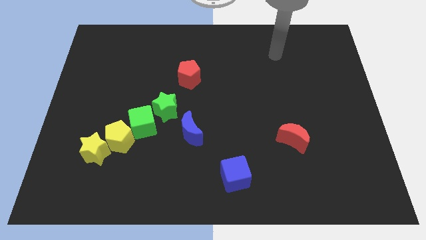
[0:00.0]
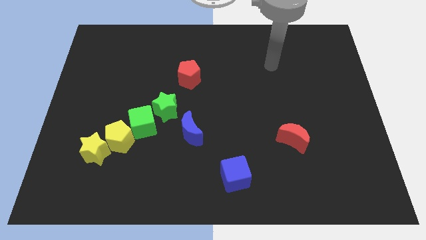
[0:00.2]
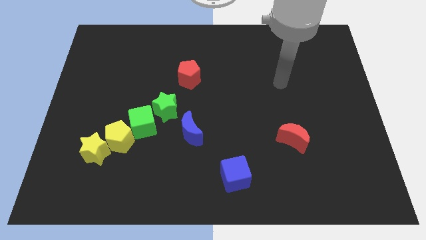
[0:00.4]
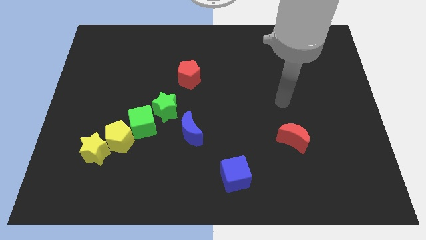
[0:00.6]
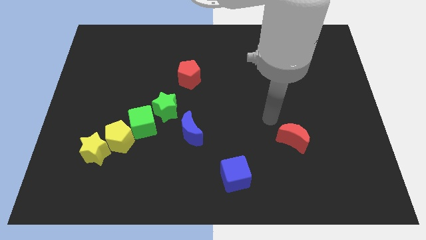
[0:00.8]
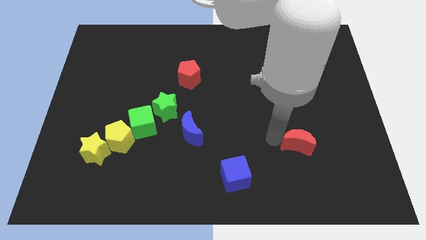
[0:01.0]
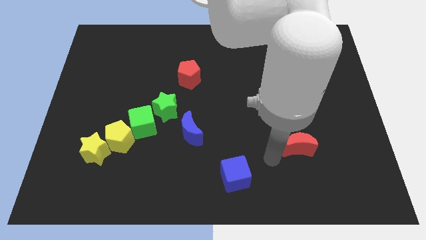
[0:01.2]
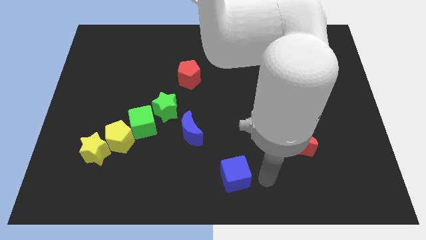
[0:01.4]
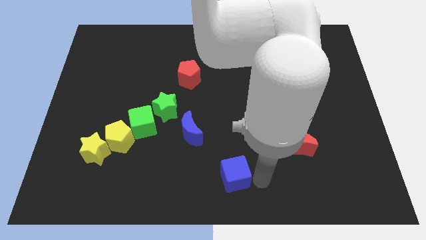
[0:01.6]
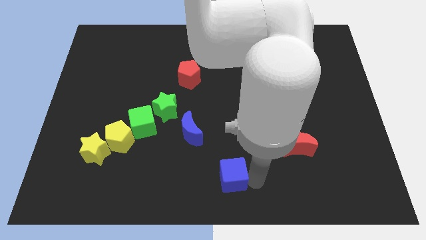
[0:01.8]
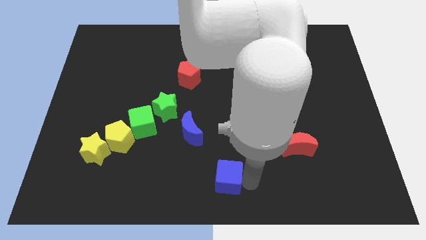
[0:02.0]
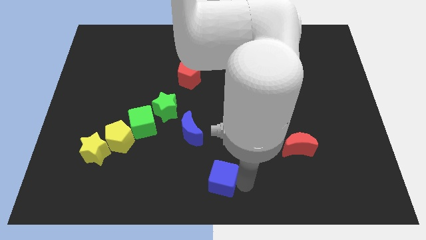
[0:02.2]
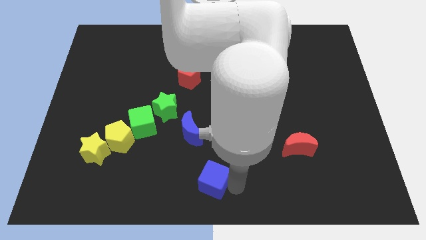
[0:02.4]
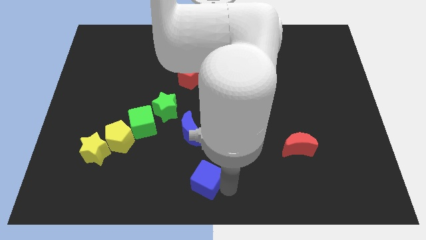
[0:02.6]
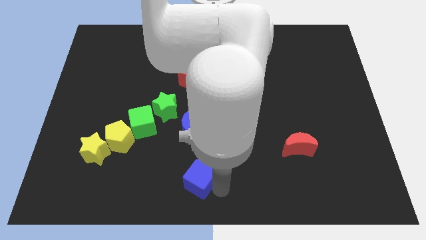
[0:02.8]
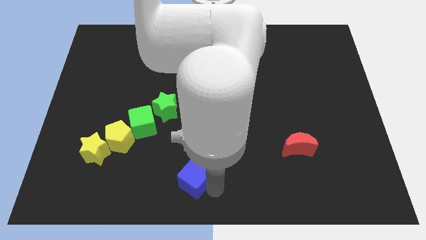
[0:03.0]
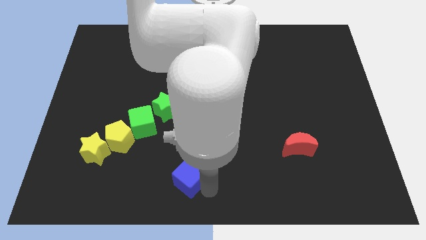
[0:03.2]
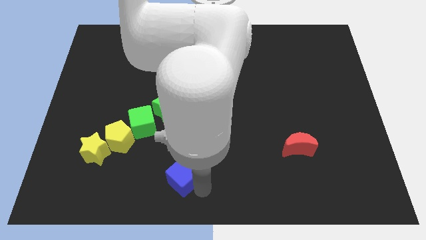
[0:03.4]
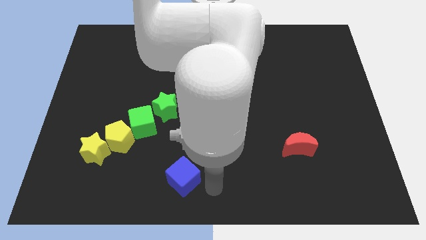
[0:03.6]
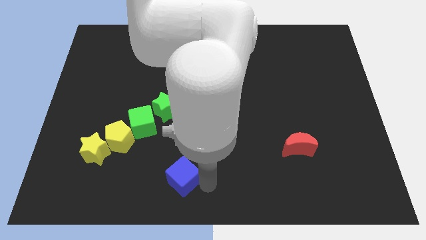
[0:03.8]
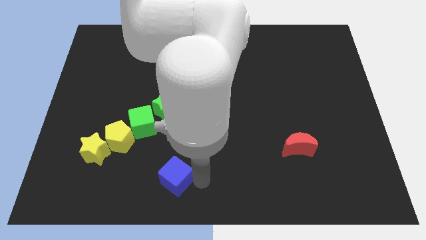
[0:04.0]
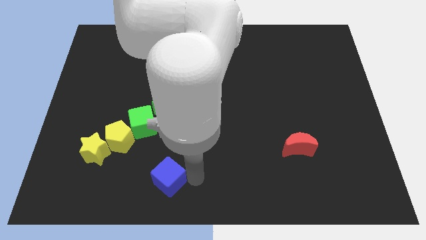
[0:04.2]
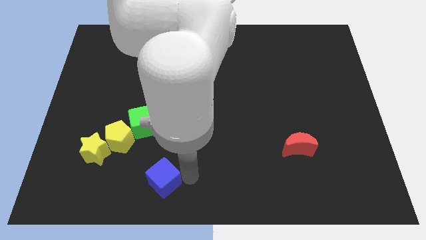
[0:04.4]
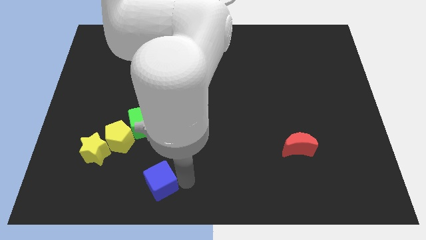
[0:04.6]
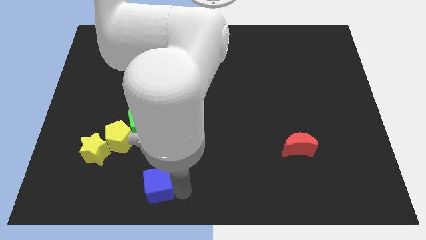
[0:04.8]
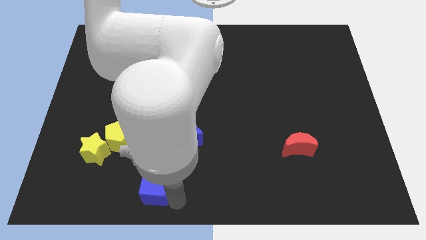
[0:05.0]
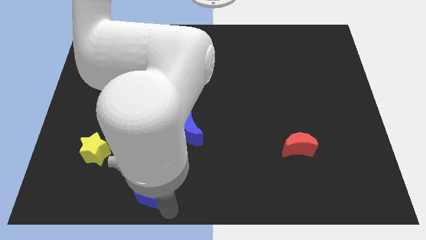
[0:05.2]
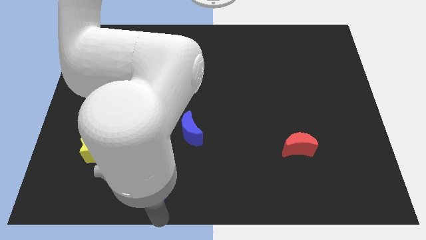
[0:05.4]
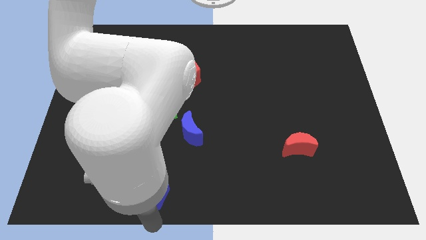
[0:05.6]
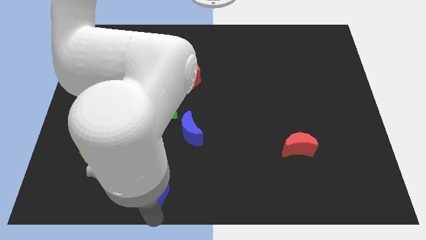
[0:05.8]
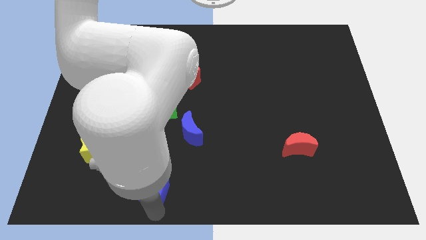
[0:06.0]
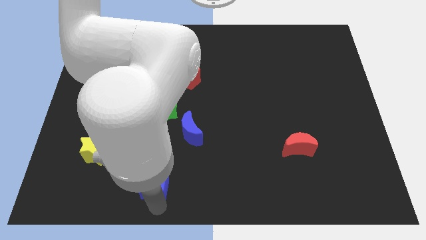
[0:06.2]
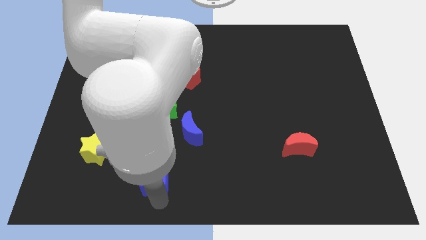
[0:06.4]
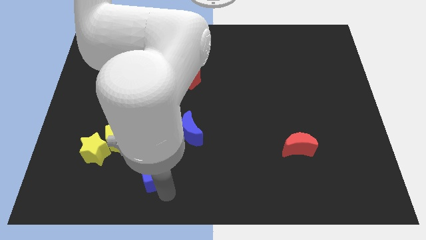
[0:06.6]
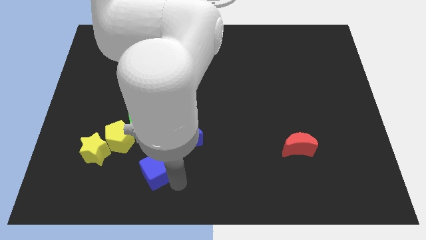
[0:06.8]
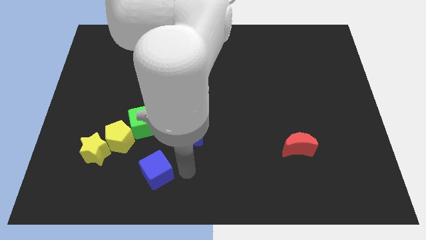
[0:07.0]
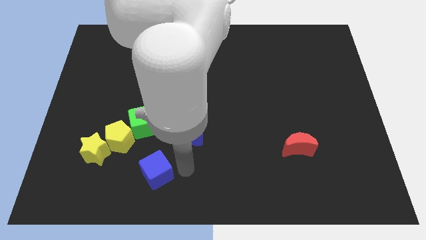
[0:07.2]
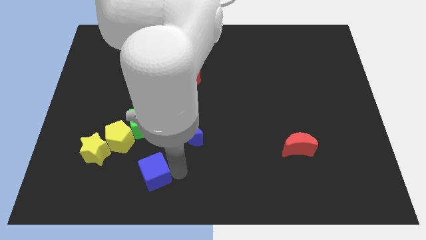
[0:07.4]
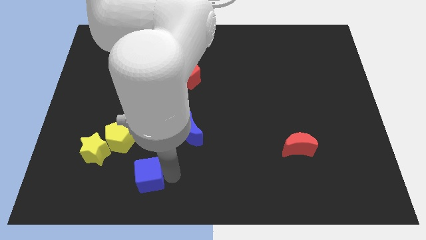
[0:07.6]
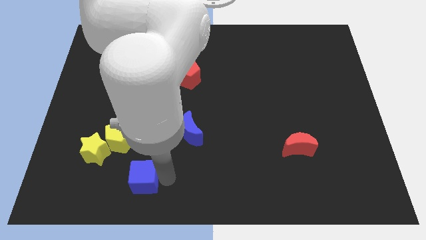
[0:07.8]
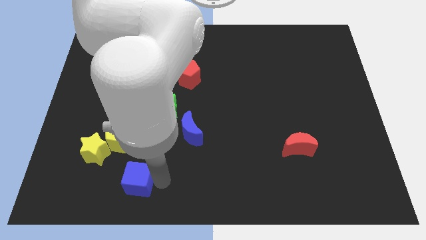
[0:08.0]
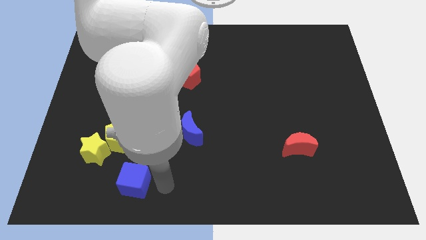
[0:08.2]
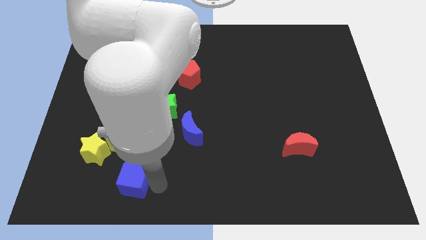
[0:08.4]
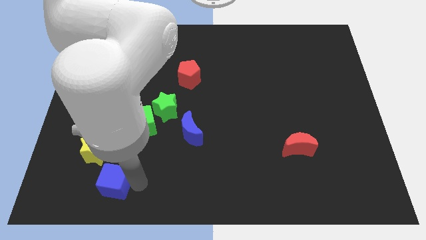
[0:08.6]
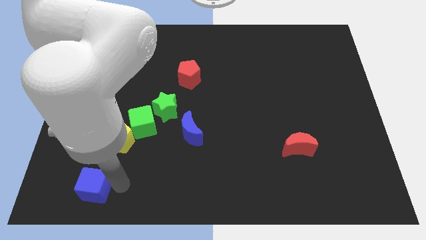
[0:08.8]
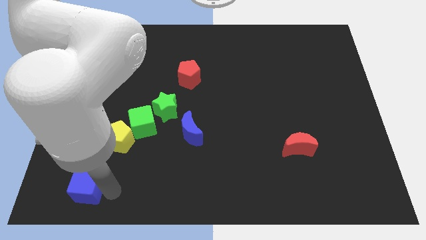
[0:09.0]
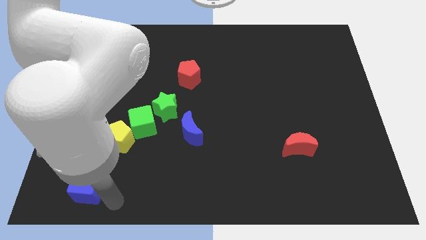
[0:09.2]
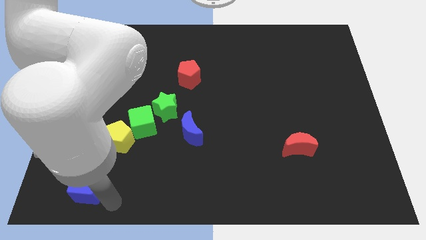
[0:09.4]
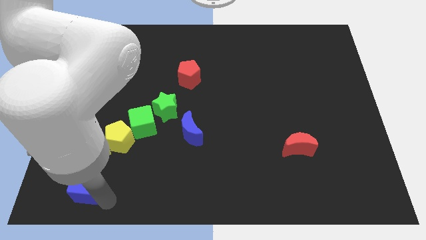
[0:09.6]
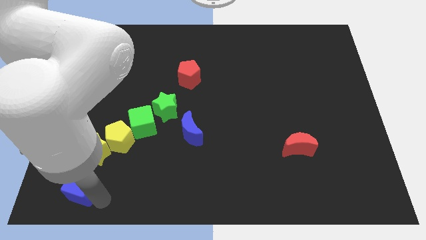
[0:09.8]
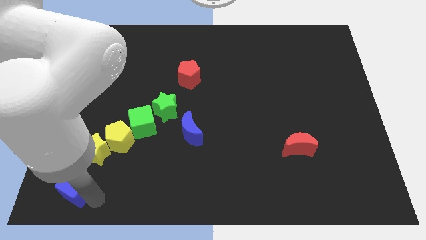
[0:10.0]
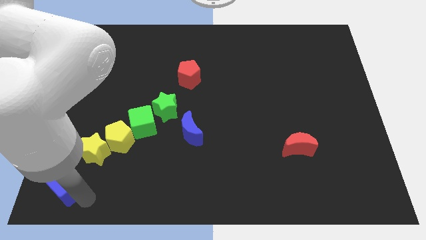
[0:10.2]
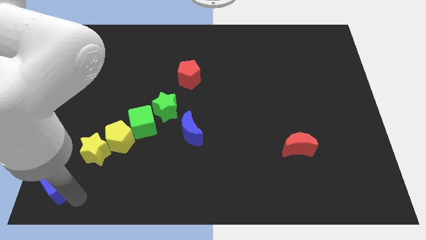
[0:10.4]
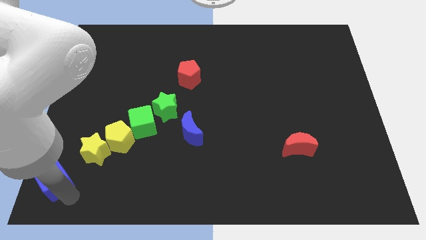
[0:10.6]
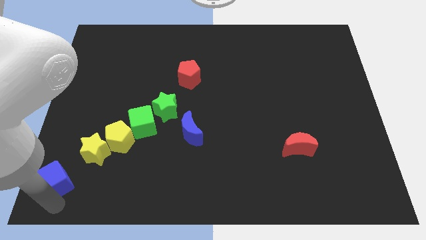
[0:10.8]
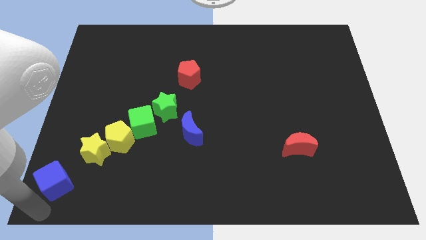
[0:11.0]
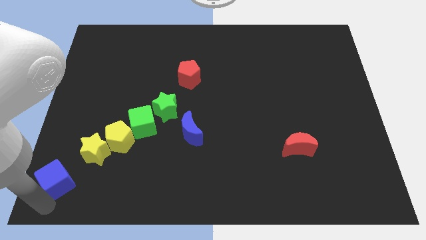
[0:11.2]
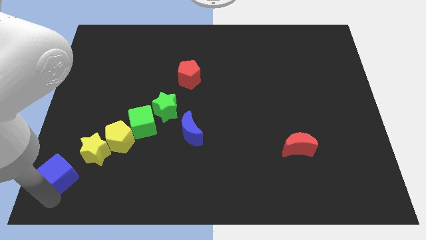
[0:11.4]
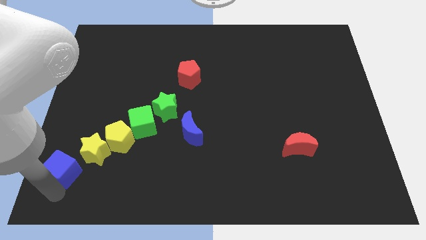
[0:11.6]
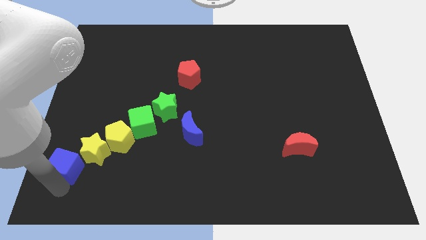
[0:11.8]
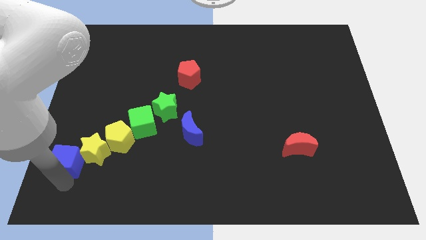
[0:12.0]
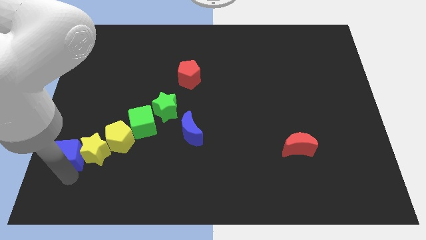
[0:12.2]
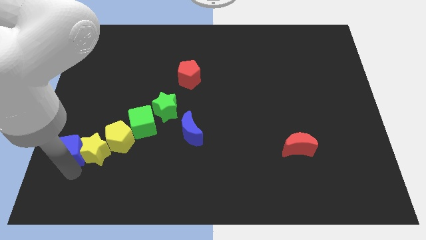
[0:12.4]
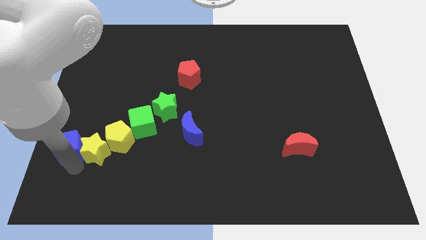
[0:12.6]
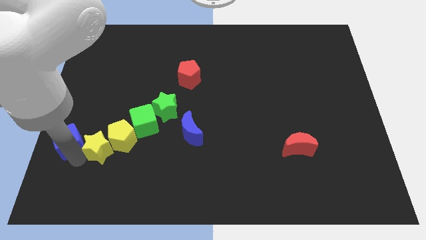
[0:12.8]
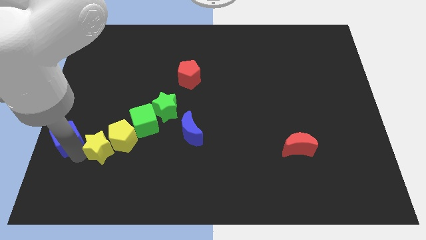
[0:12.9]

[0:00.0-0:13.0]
put the blue cube to the center left
